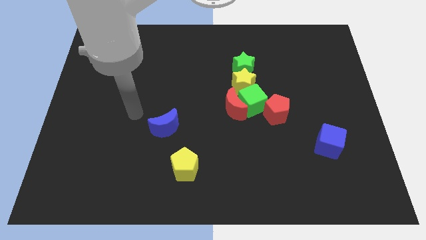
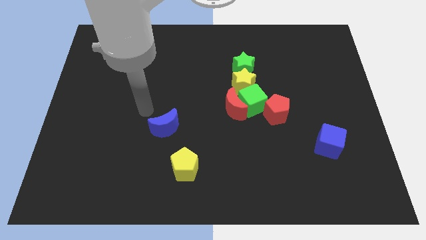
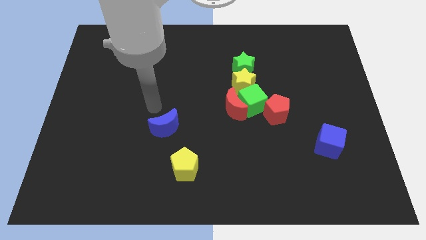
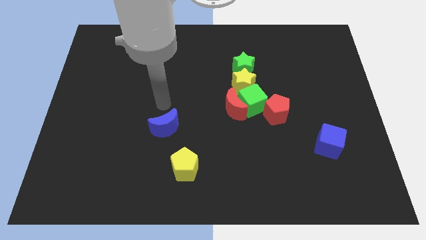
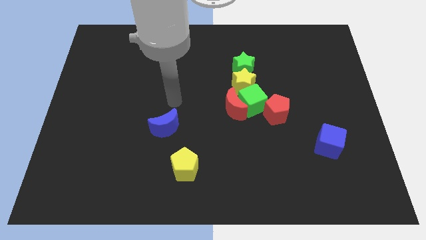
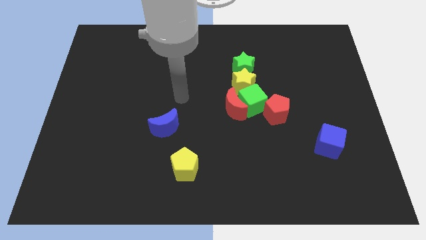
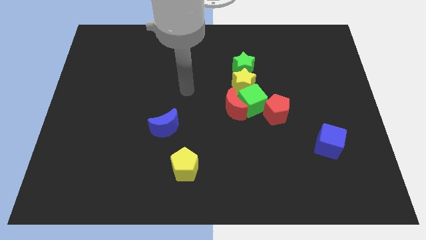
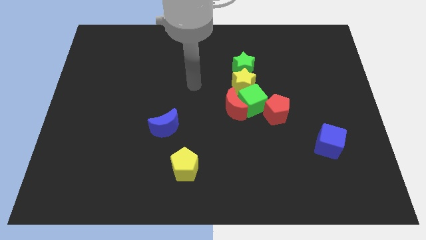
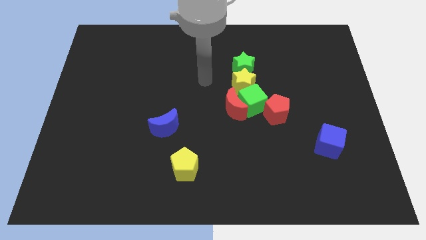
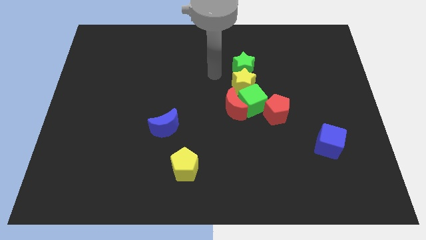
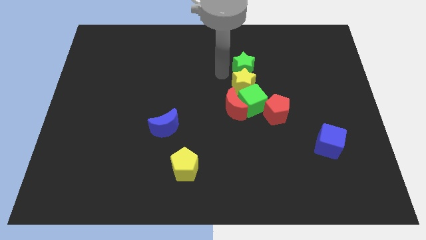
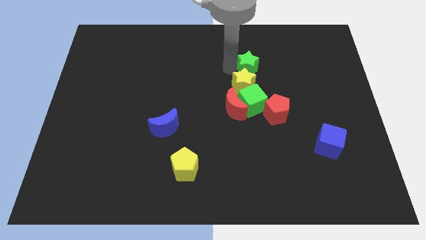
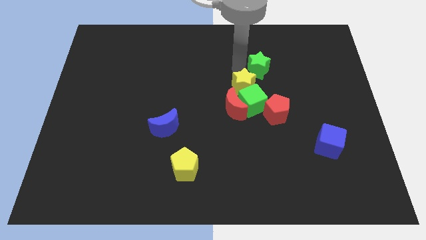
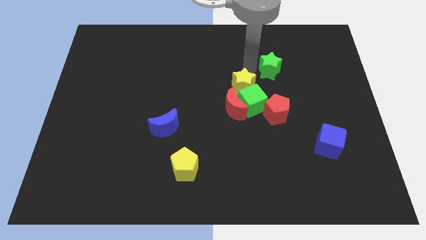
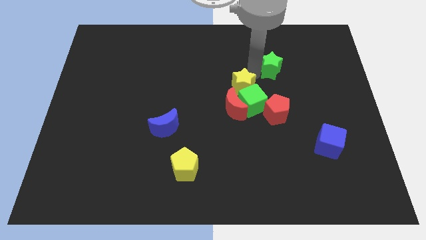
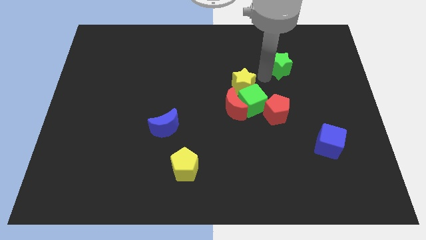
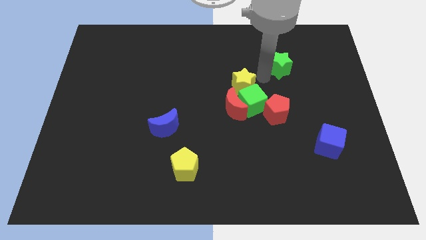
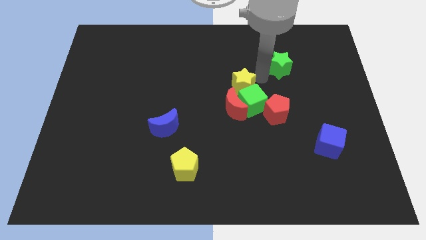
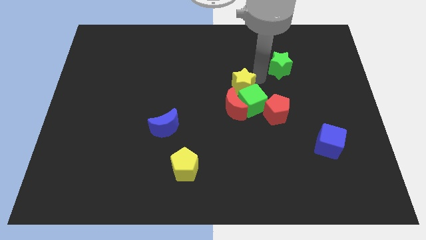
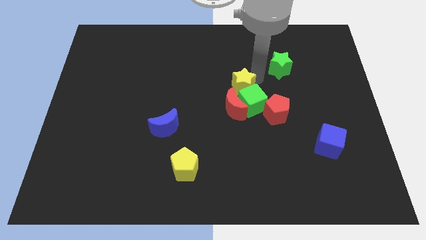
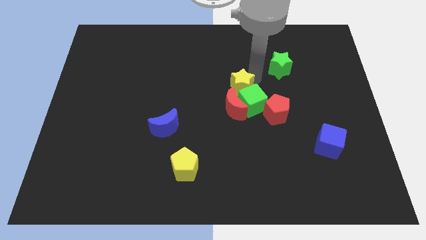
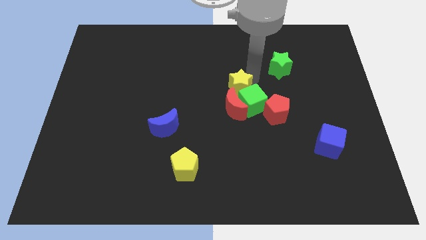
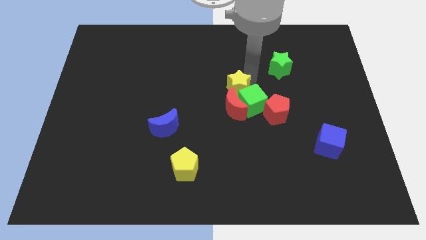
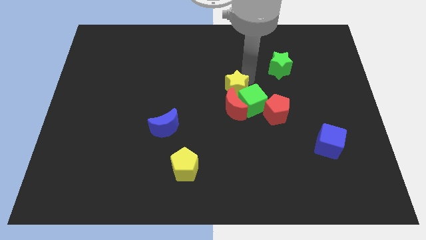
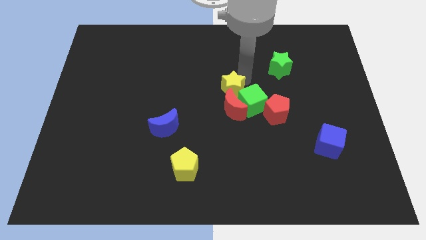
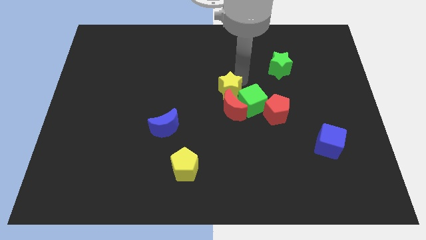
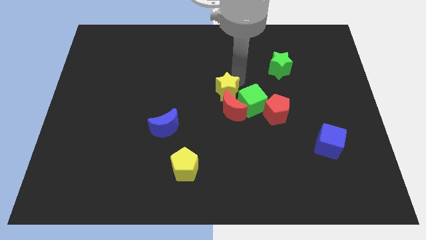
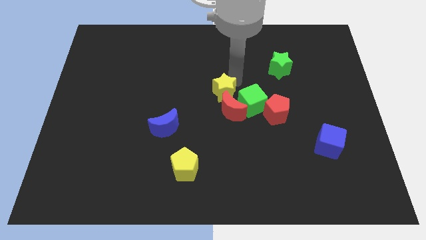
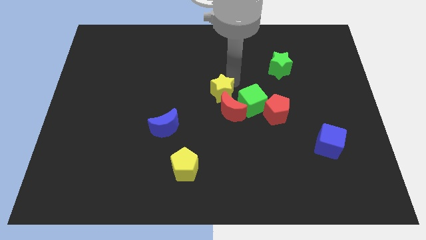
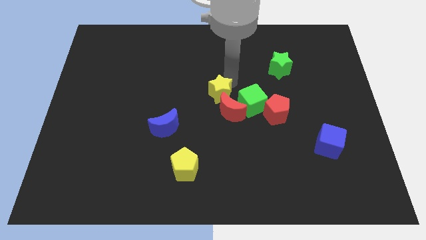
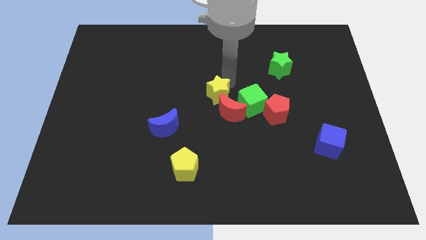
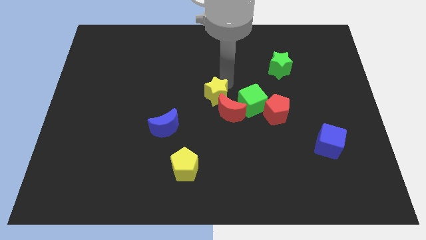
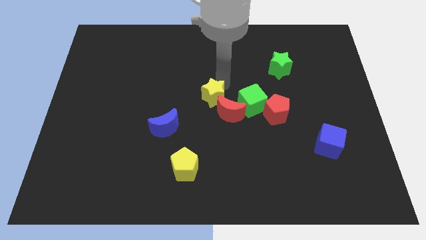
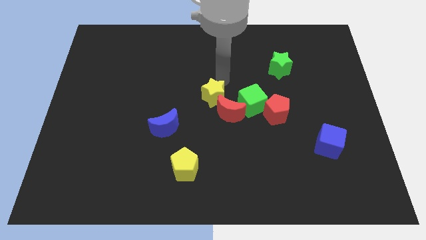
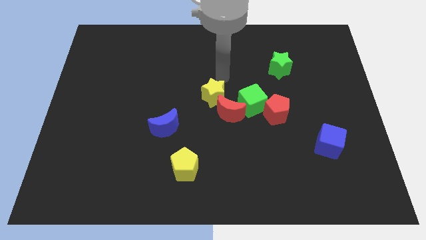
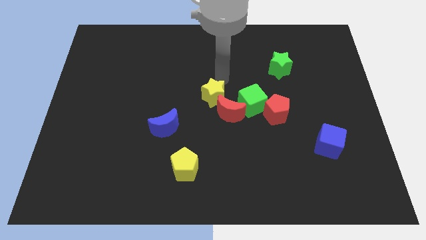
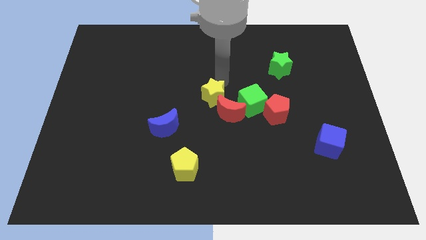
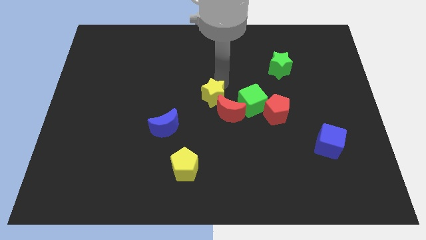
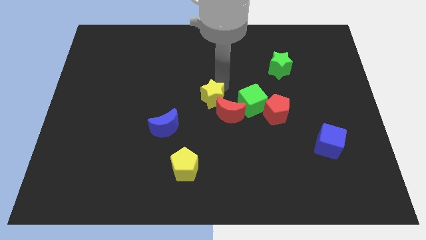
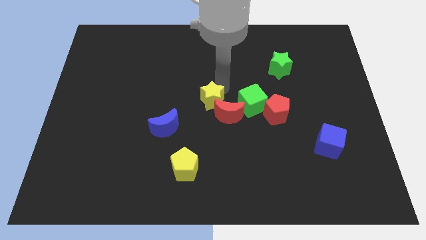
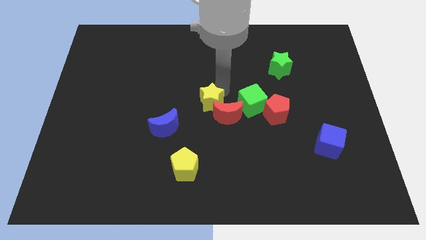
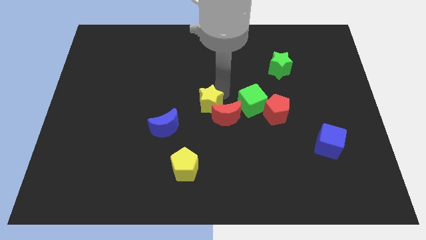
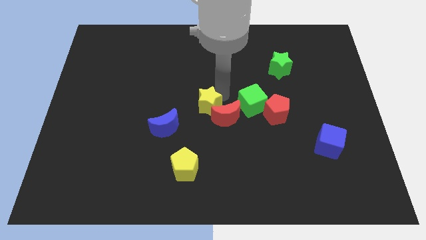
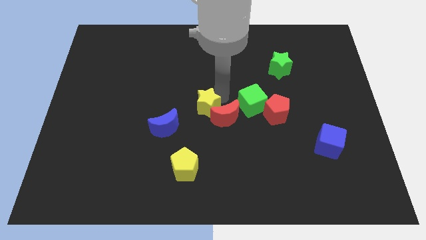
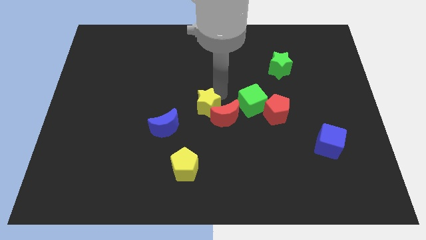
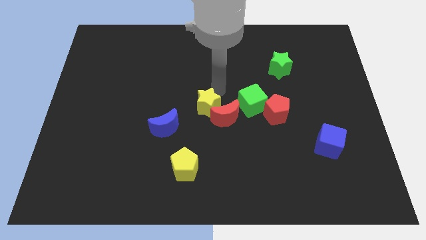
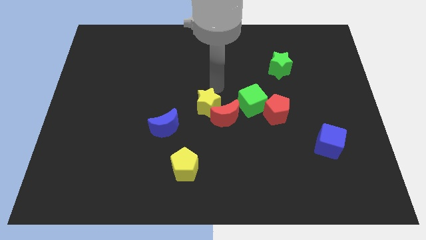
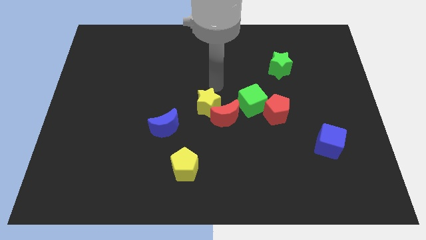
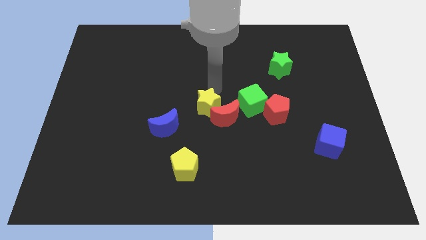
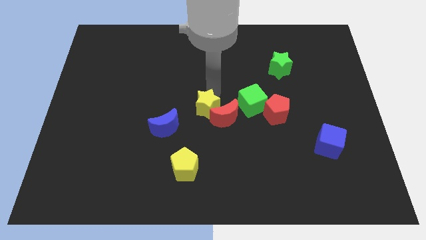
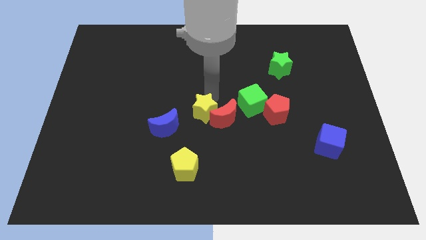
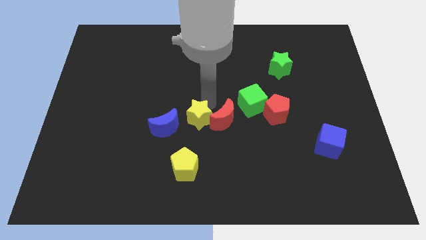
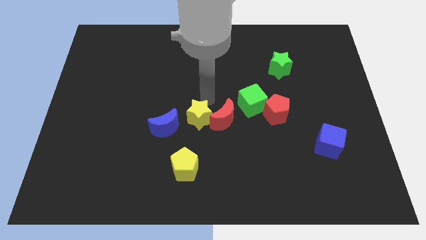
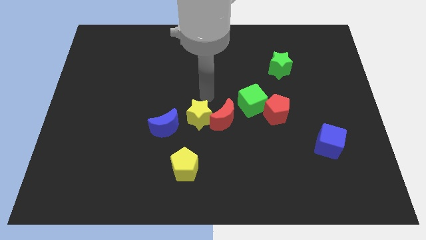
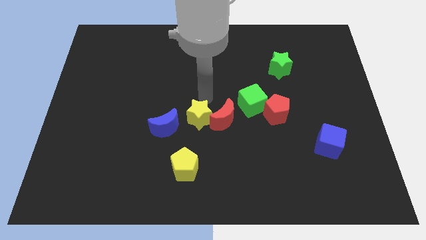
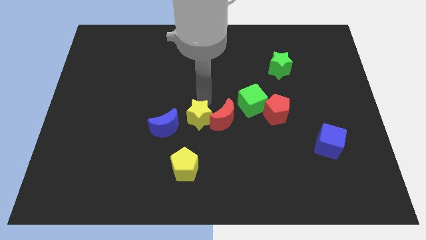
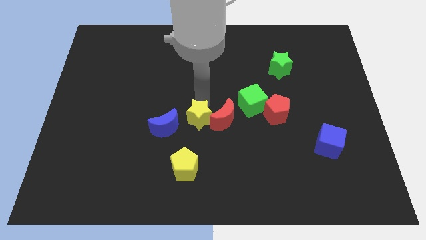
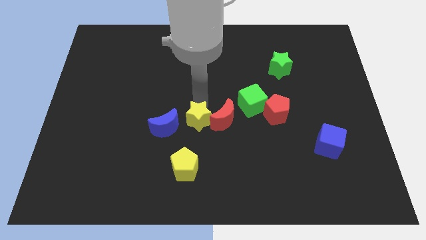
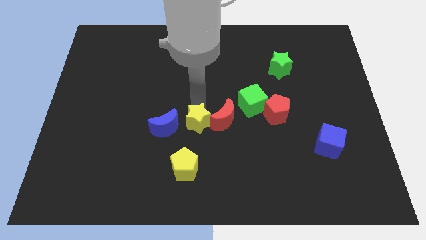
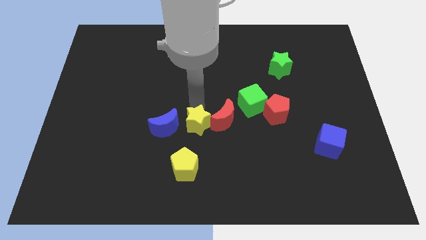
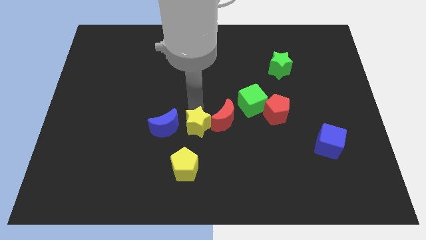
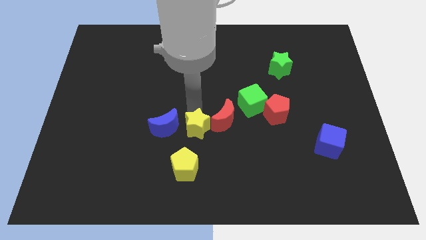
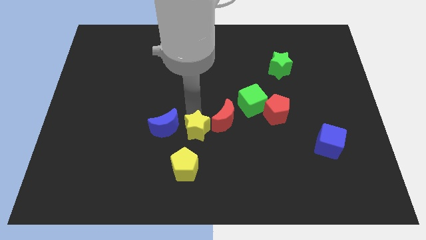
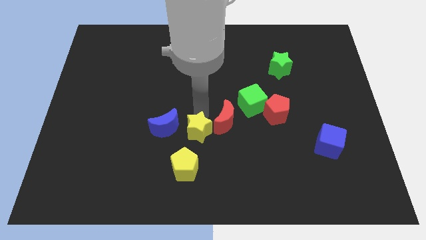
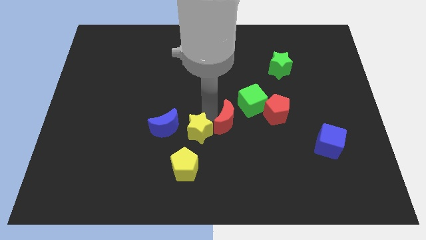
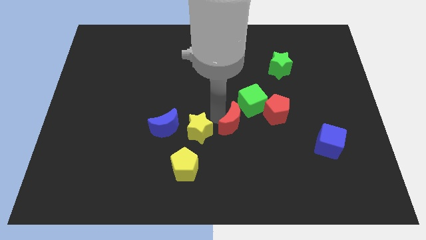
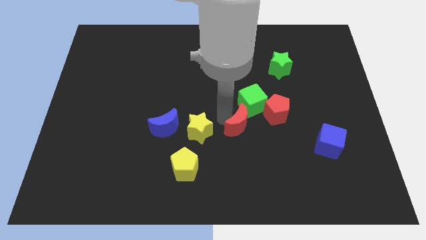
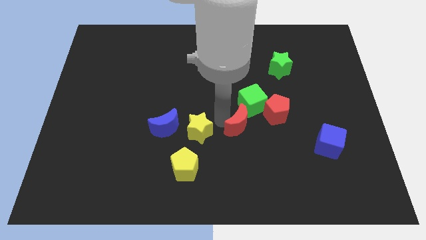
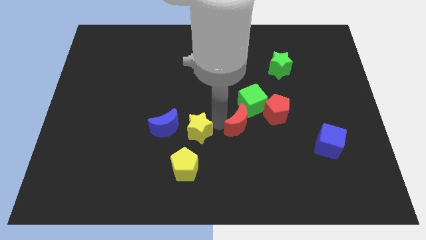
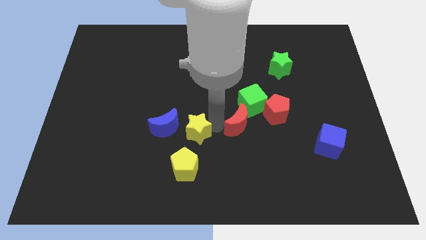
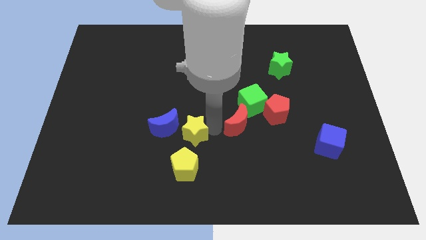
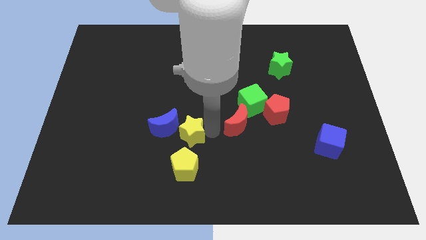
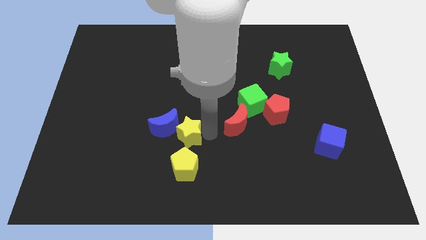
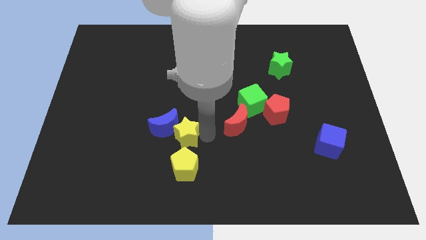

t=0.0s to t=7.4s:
move the yellow star downwards and to the left

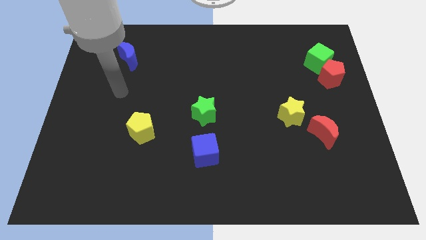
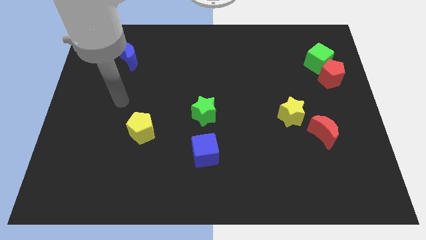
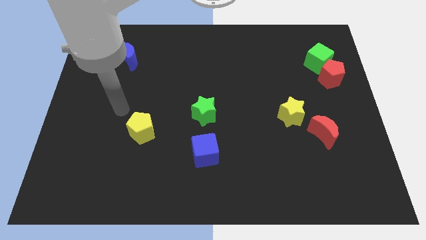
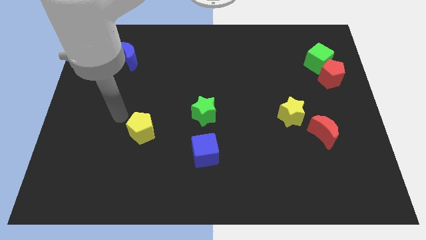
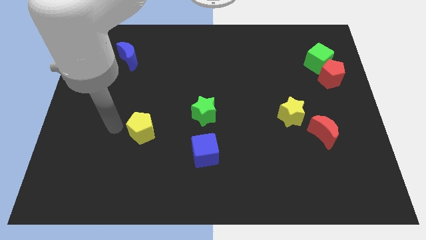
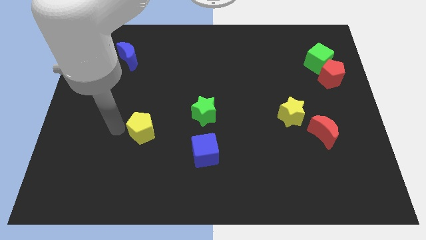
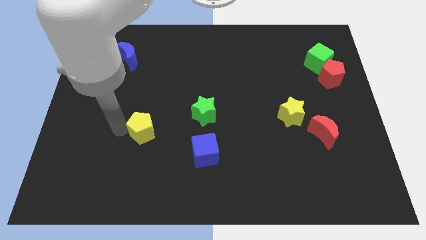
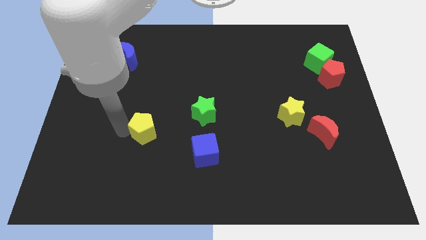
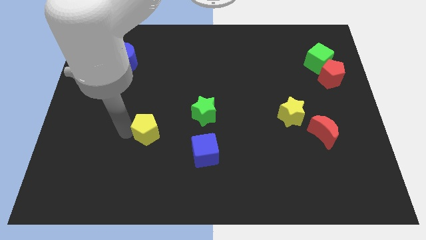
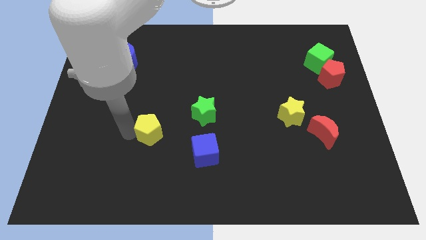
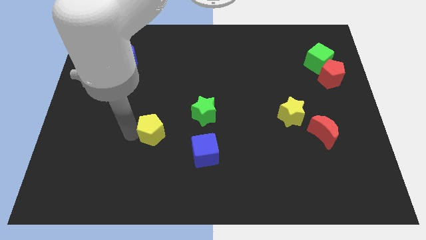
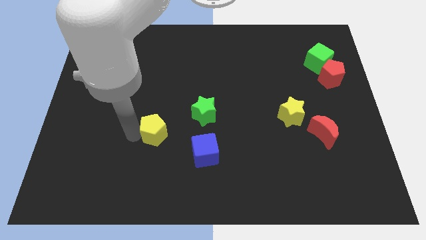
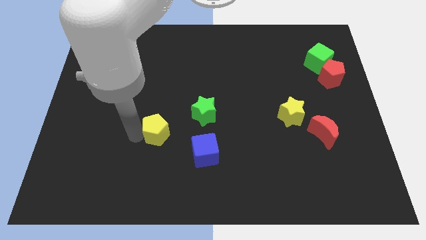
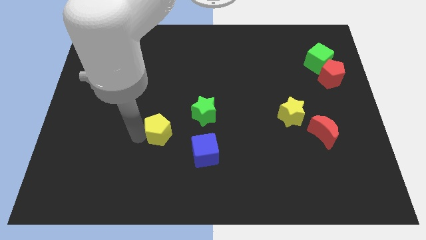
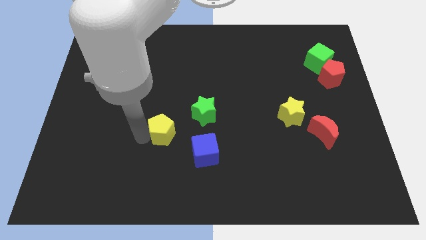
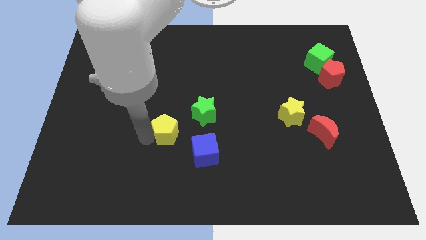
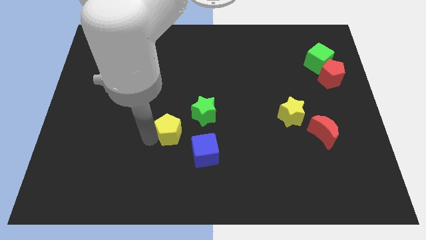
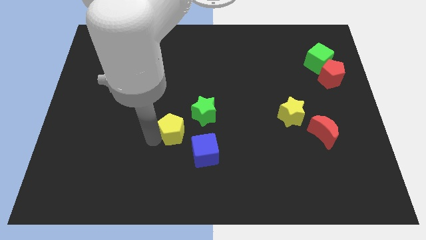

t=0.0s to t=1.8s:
move the yellow pentagon to the right a little bit
